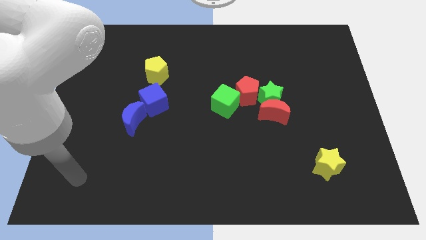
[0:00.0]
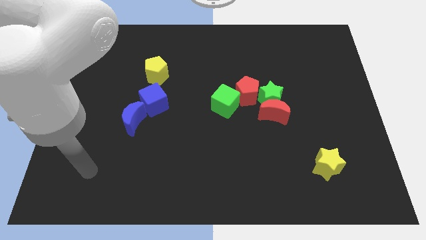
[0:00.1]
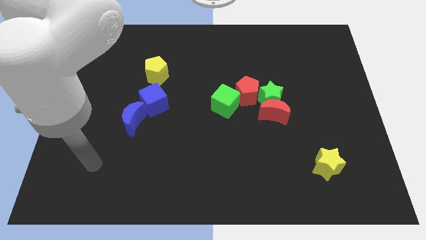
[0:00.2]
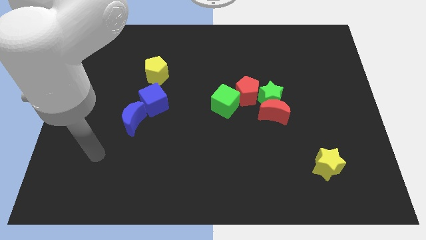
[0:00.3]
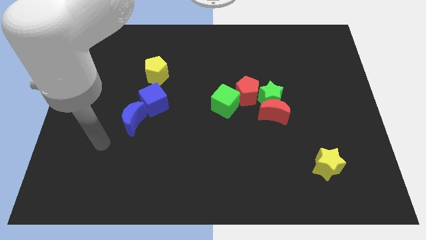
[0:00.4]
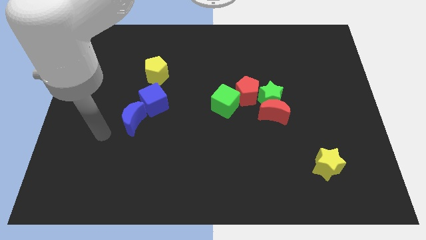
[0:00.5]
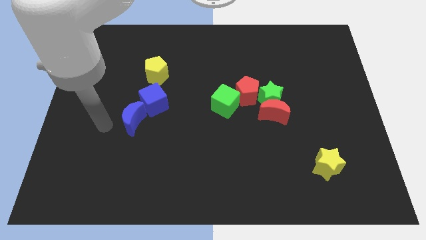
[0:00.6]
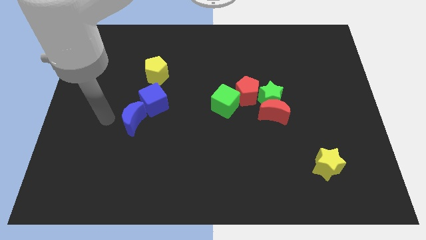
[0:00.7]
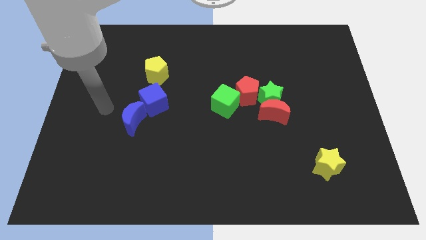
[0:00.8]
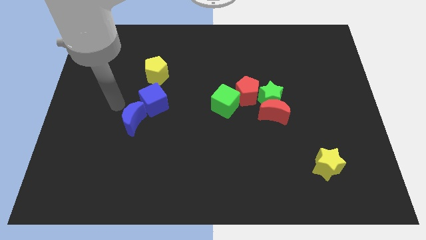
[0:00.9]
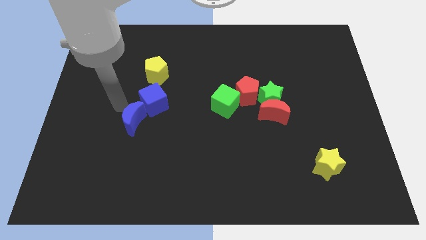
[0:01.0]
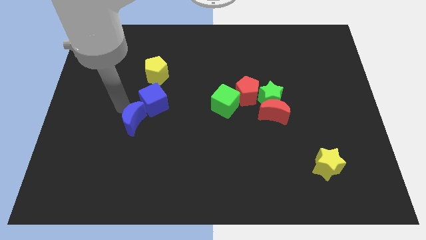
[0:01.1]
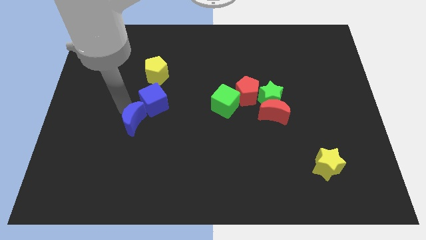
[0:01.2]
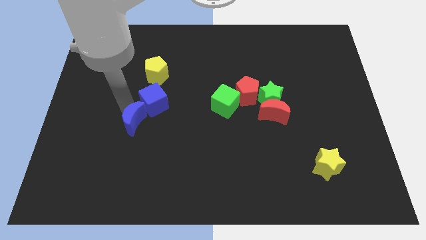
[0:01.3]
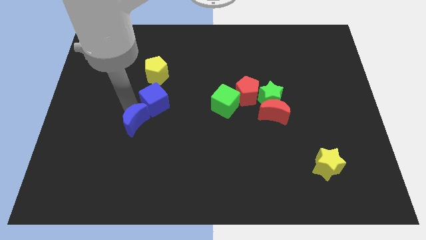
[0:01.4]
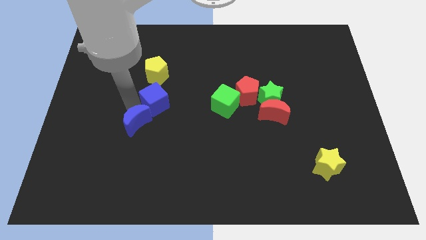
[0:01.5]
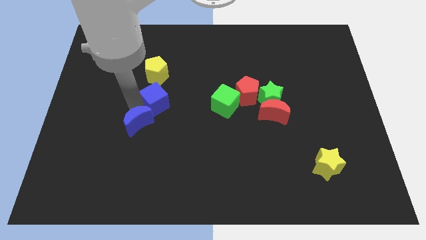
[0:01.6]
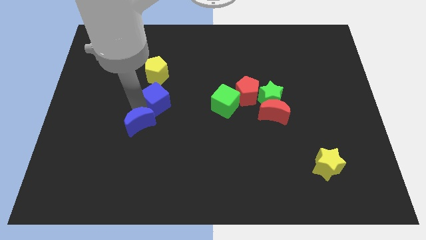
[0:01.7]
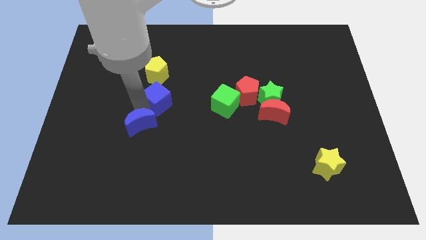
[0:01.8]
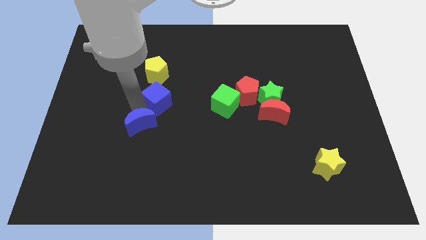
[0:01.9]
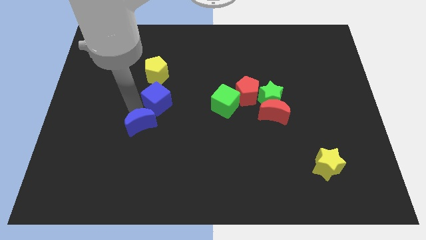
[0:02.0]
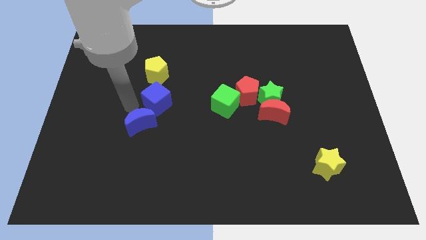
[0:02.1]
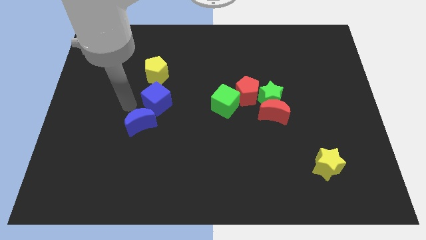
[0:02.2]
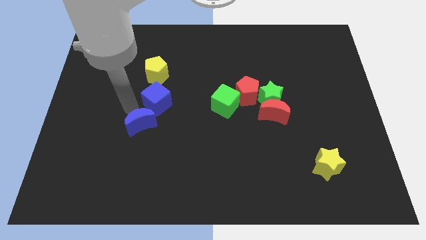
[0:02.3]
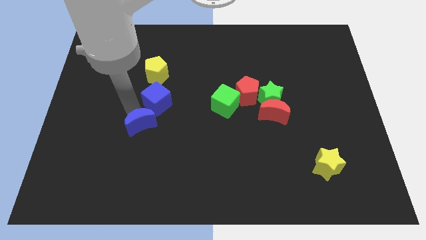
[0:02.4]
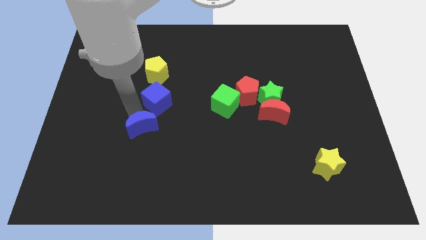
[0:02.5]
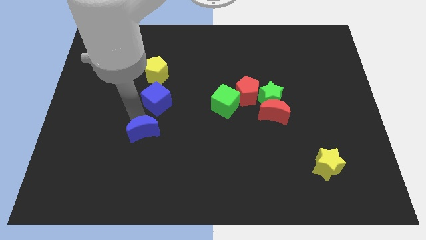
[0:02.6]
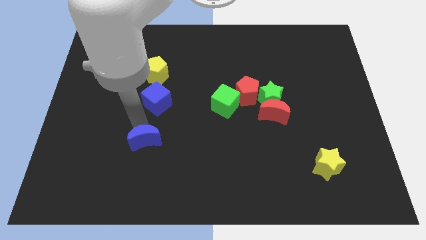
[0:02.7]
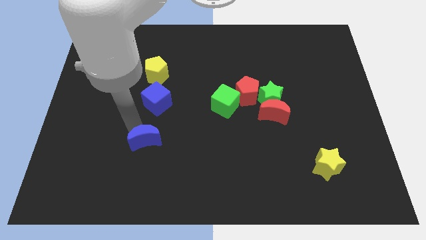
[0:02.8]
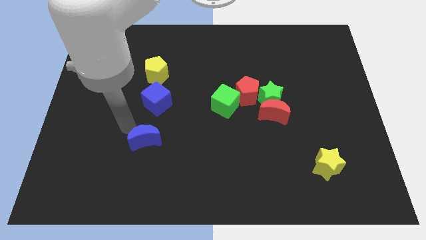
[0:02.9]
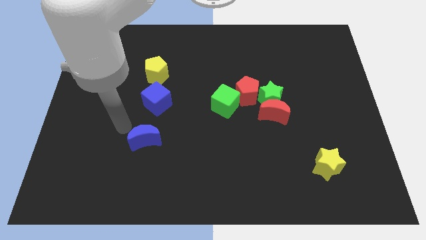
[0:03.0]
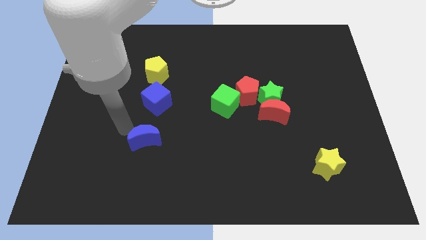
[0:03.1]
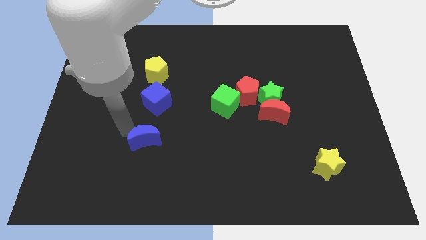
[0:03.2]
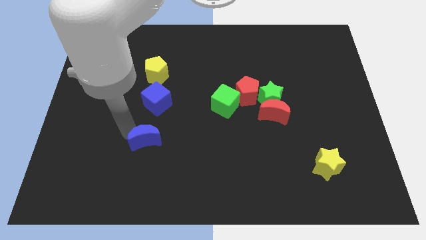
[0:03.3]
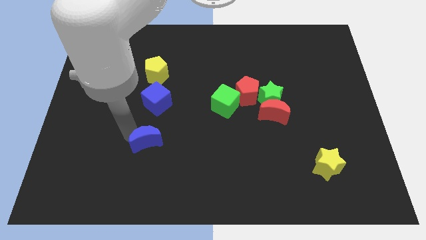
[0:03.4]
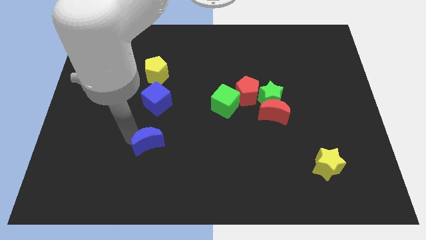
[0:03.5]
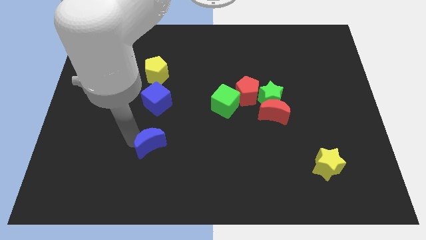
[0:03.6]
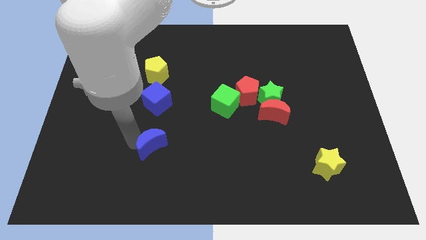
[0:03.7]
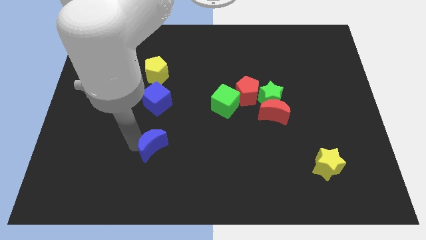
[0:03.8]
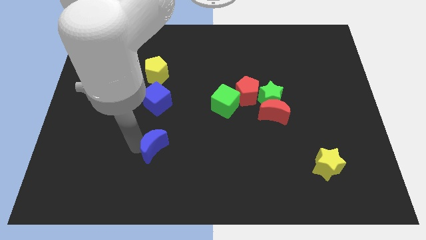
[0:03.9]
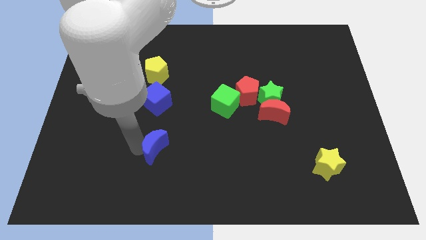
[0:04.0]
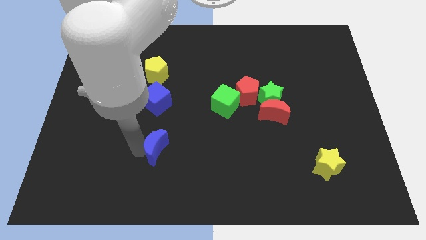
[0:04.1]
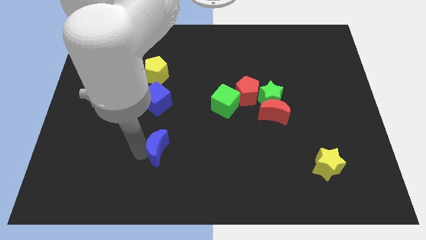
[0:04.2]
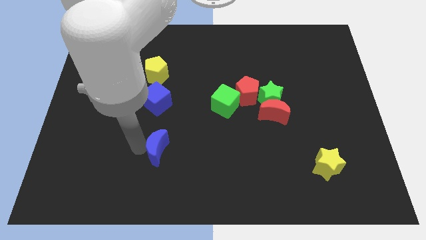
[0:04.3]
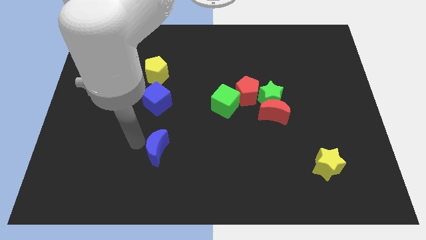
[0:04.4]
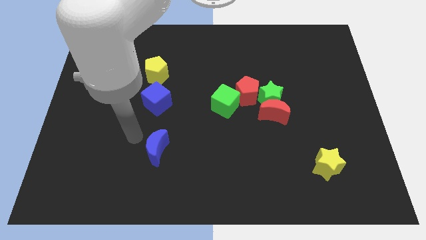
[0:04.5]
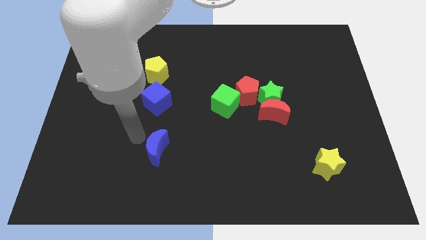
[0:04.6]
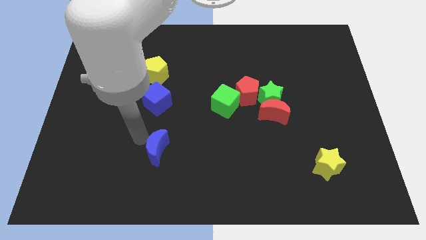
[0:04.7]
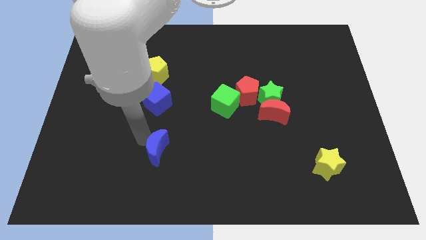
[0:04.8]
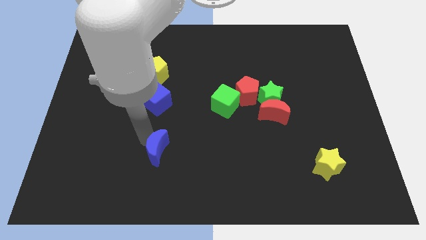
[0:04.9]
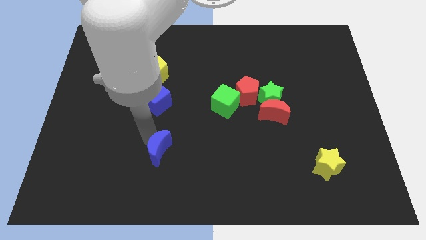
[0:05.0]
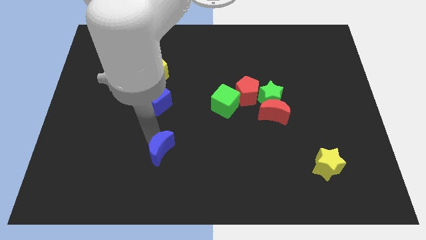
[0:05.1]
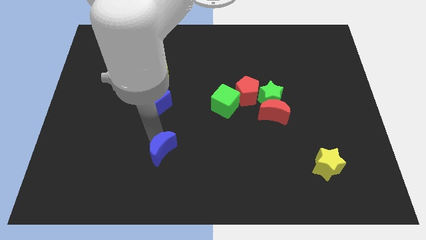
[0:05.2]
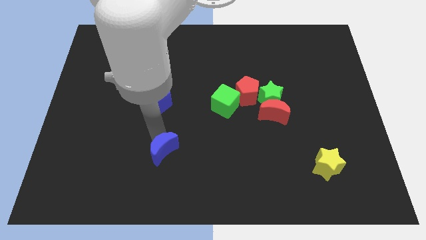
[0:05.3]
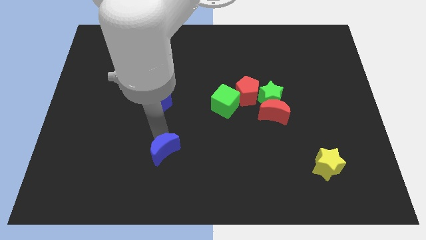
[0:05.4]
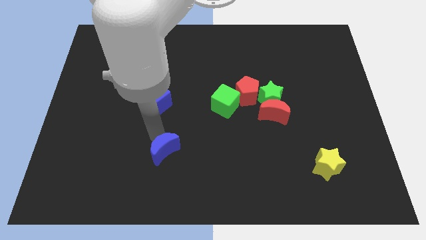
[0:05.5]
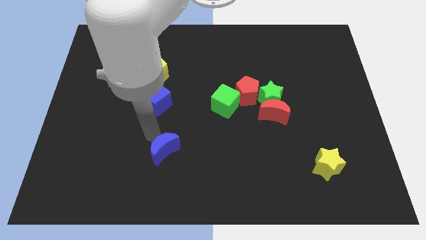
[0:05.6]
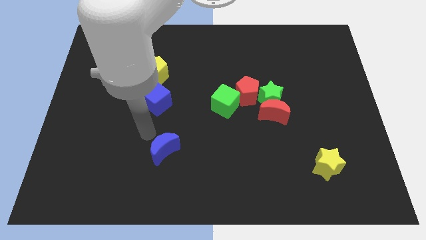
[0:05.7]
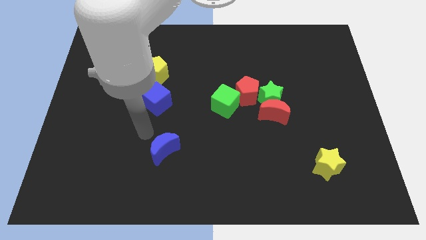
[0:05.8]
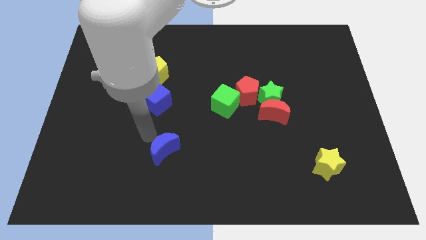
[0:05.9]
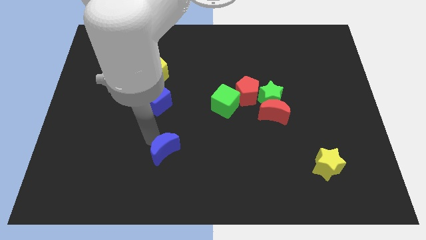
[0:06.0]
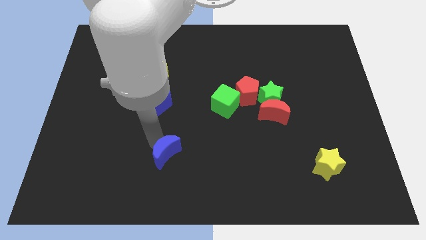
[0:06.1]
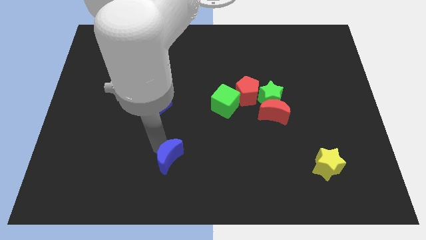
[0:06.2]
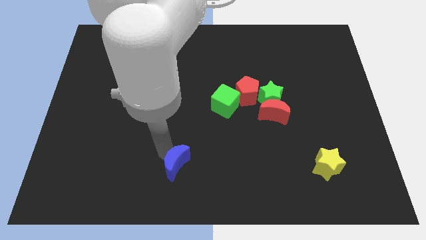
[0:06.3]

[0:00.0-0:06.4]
put the blue moon to the bottom
